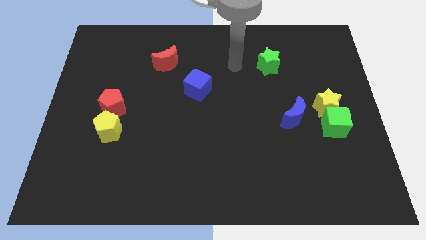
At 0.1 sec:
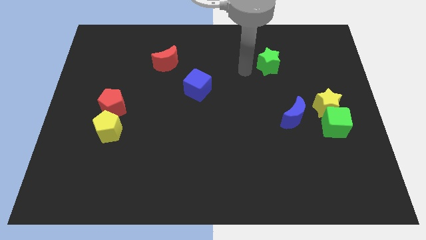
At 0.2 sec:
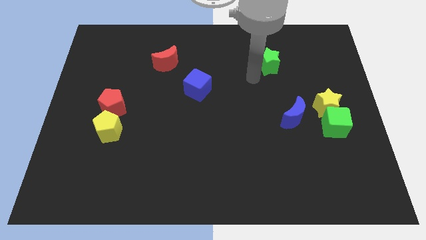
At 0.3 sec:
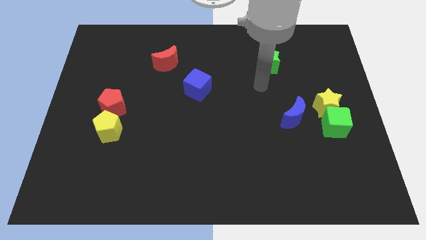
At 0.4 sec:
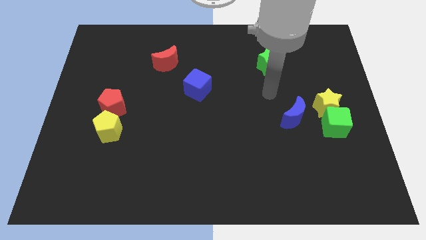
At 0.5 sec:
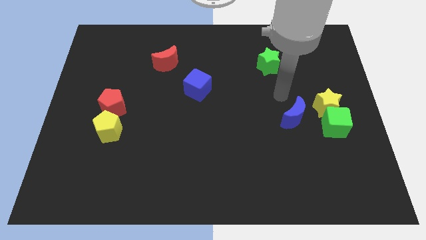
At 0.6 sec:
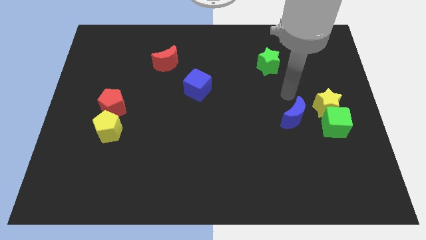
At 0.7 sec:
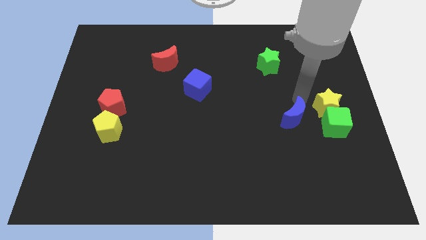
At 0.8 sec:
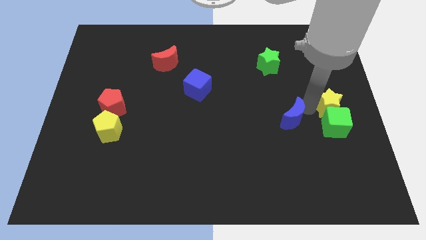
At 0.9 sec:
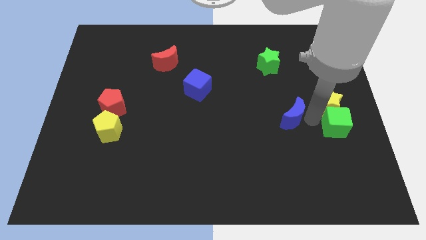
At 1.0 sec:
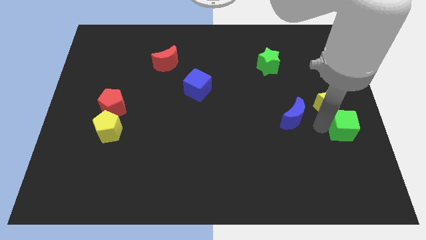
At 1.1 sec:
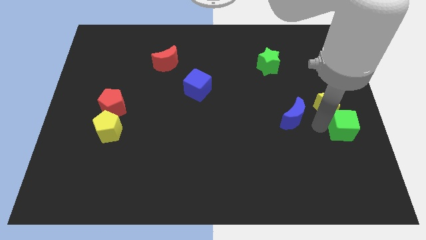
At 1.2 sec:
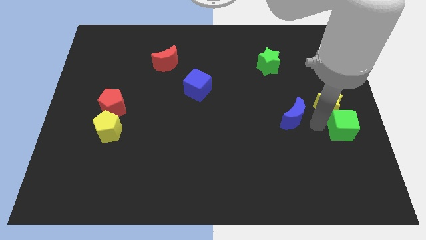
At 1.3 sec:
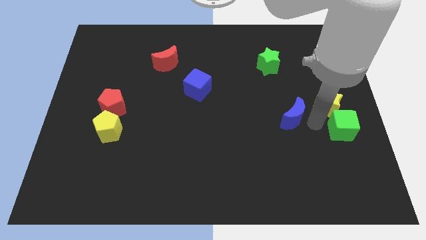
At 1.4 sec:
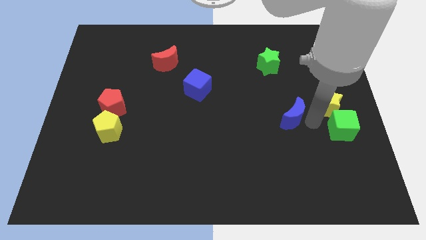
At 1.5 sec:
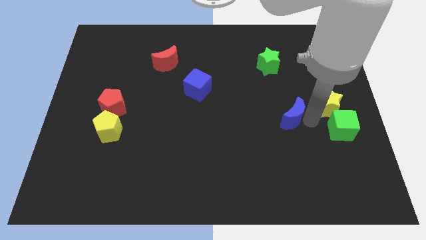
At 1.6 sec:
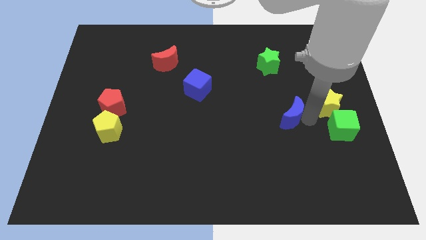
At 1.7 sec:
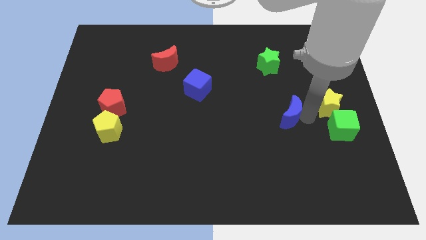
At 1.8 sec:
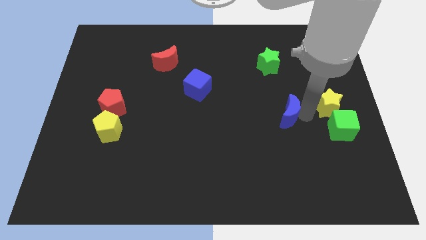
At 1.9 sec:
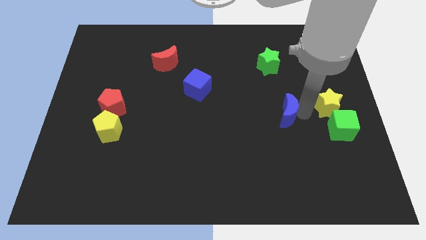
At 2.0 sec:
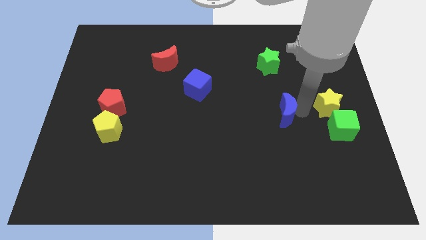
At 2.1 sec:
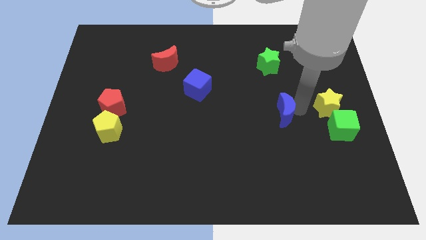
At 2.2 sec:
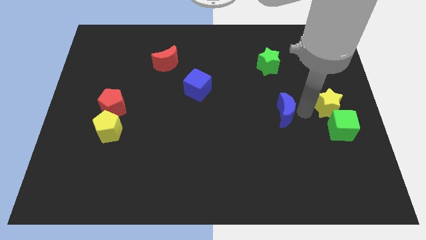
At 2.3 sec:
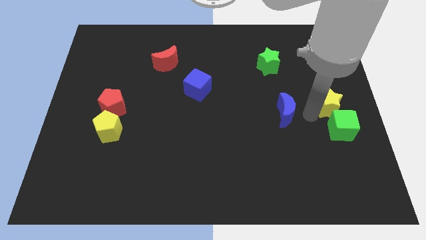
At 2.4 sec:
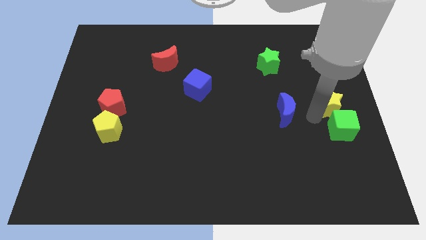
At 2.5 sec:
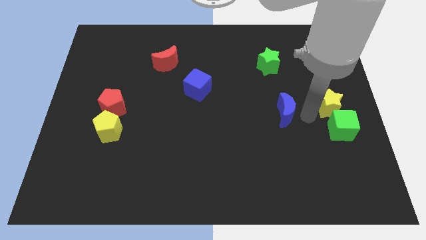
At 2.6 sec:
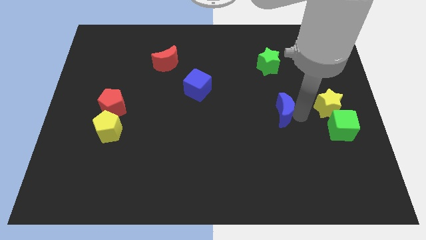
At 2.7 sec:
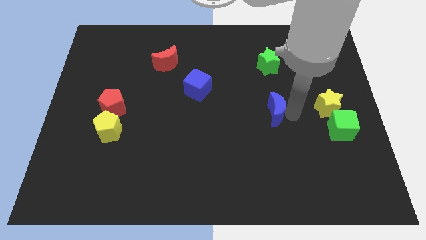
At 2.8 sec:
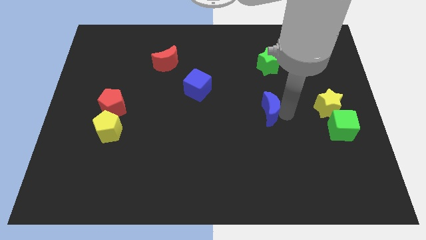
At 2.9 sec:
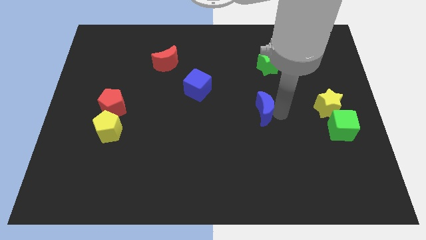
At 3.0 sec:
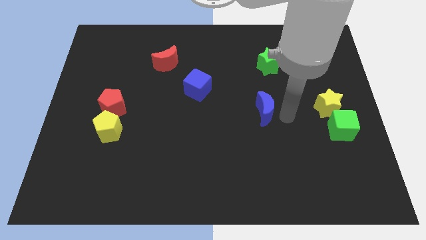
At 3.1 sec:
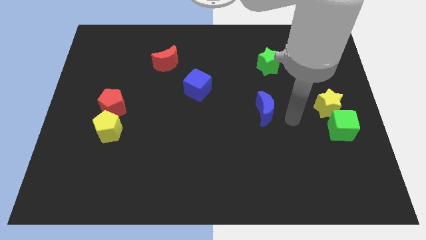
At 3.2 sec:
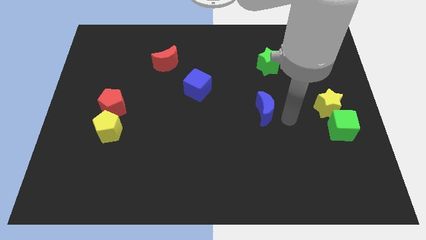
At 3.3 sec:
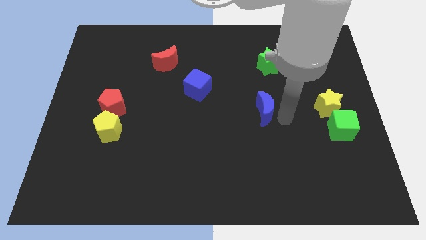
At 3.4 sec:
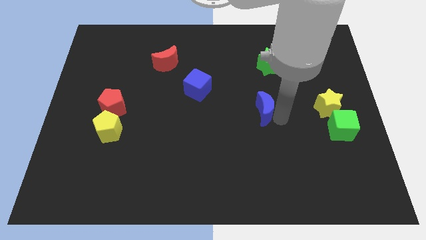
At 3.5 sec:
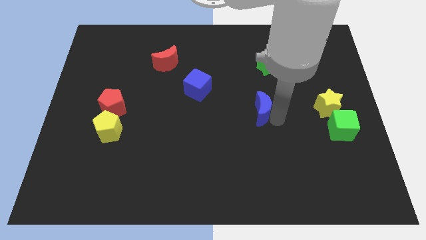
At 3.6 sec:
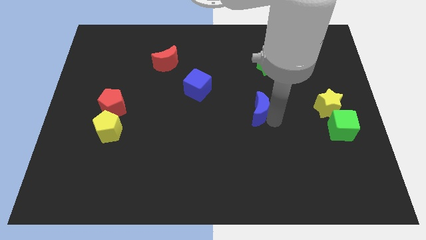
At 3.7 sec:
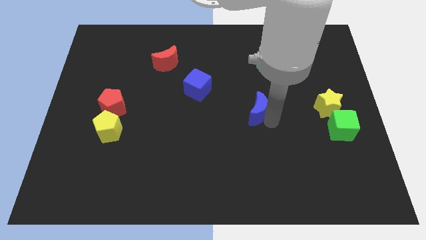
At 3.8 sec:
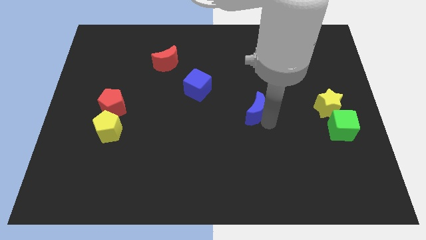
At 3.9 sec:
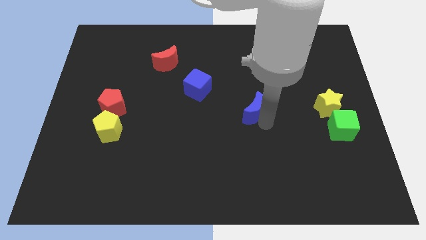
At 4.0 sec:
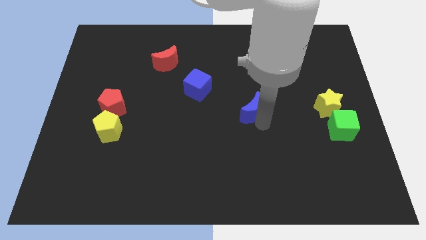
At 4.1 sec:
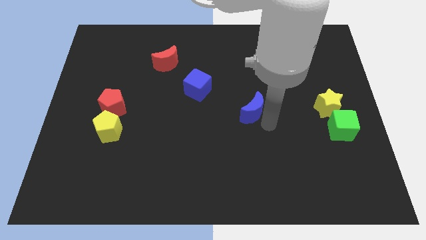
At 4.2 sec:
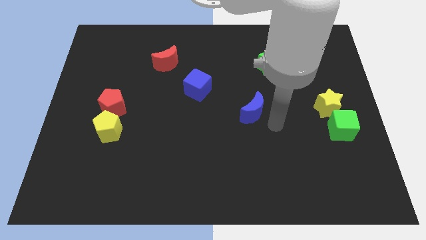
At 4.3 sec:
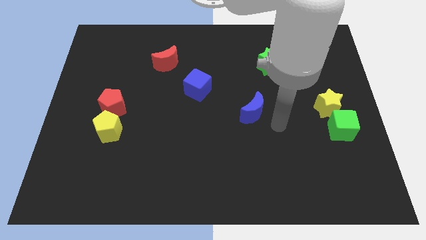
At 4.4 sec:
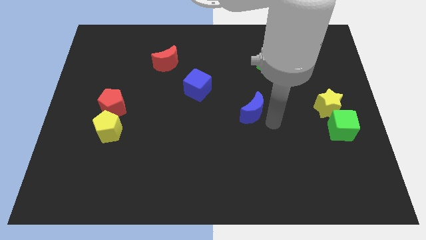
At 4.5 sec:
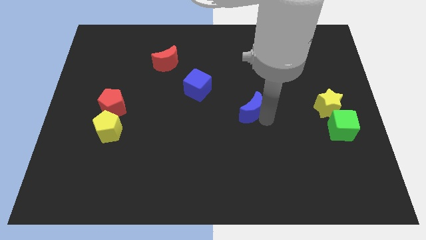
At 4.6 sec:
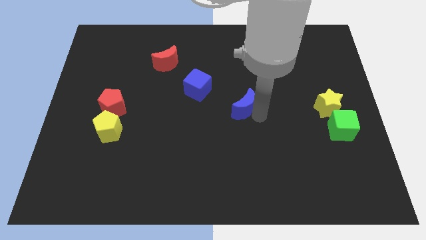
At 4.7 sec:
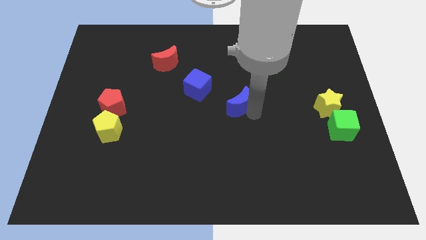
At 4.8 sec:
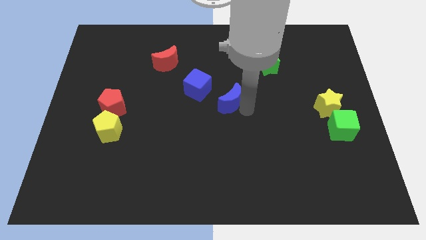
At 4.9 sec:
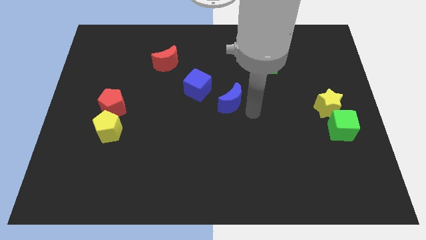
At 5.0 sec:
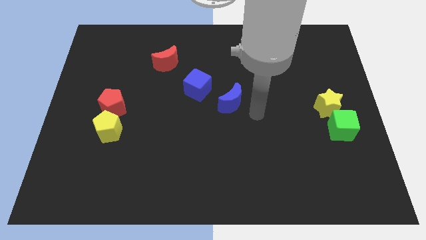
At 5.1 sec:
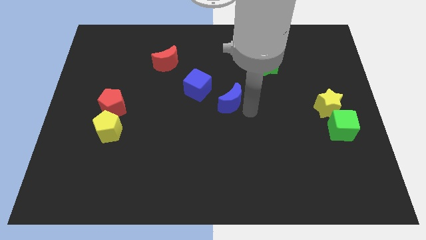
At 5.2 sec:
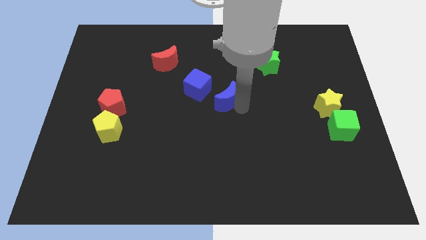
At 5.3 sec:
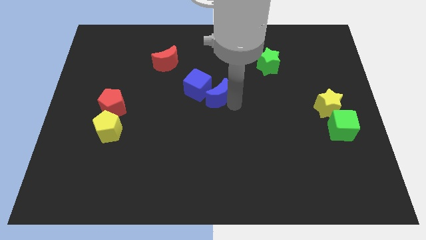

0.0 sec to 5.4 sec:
put the blue moon close to the blue cube

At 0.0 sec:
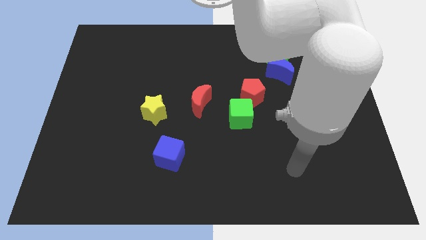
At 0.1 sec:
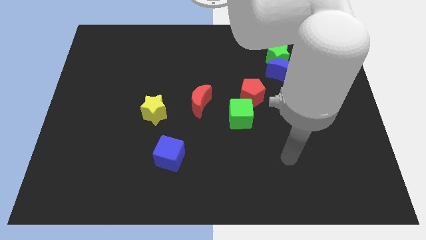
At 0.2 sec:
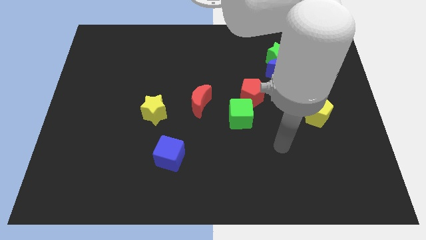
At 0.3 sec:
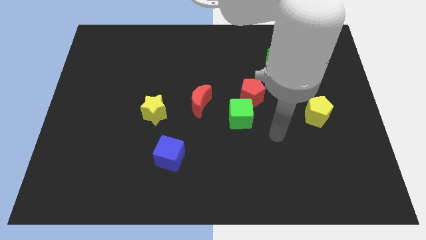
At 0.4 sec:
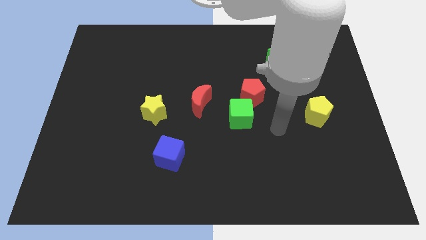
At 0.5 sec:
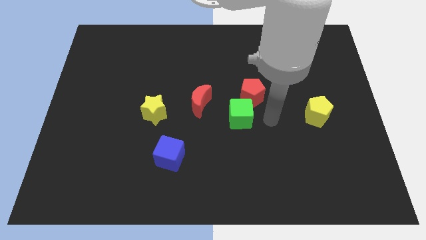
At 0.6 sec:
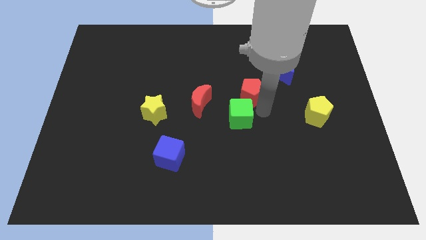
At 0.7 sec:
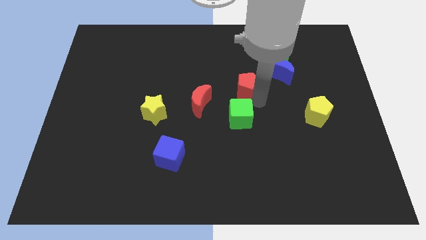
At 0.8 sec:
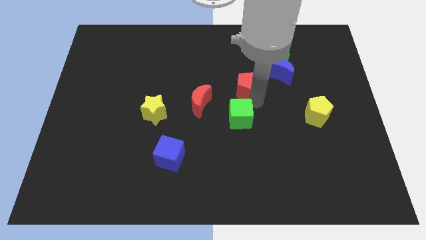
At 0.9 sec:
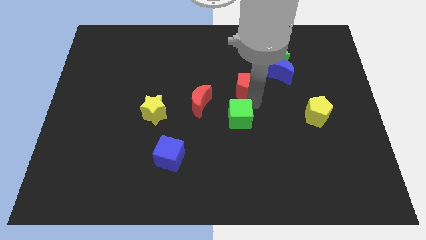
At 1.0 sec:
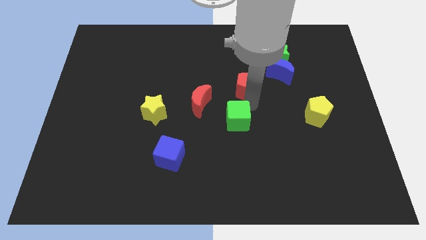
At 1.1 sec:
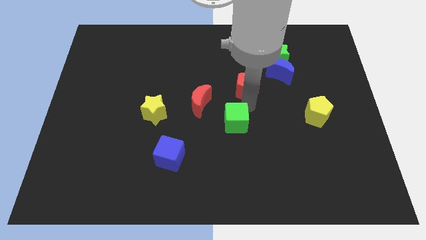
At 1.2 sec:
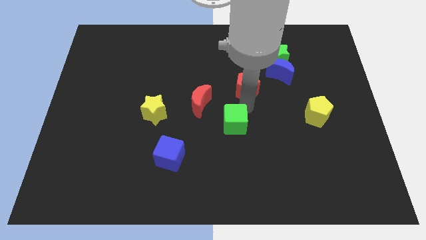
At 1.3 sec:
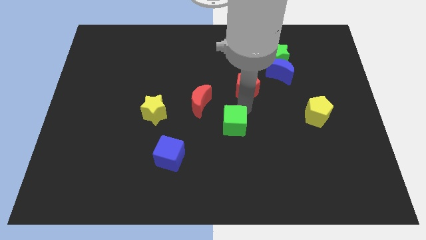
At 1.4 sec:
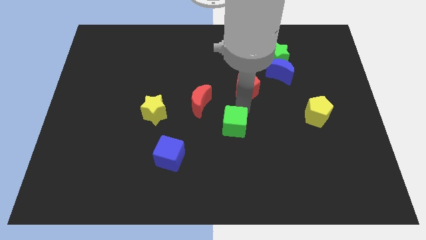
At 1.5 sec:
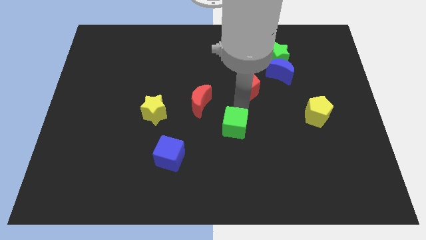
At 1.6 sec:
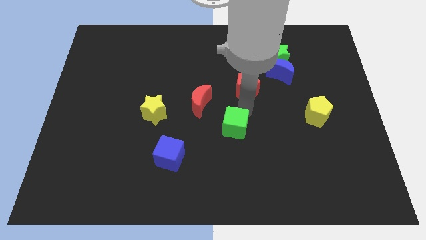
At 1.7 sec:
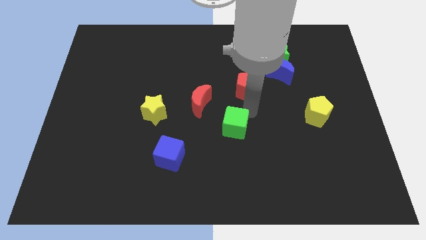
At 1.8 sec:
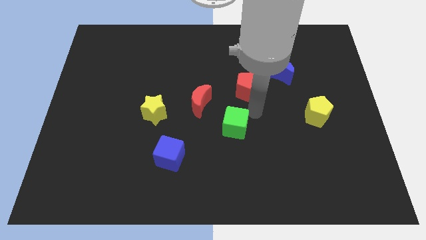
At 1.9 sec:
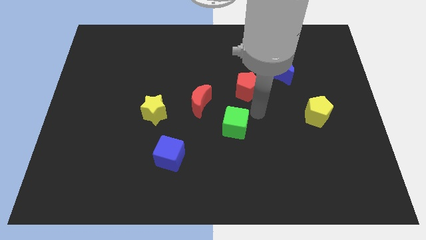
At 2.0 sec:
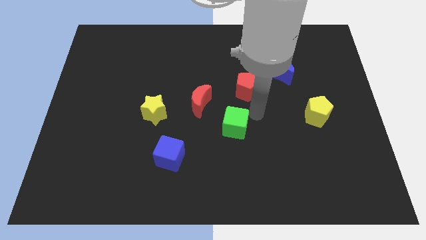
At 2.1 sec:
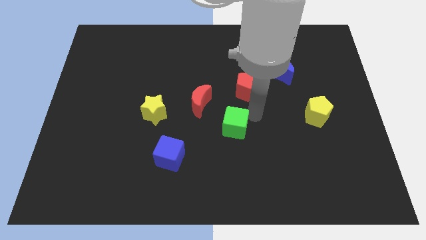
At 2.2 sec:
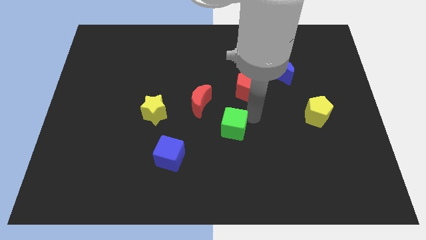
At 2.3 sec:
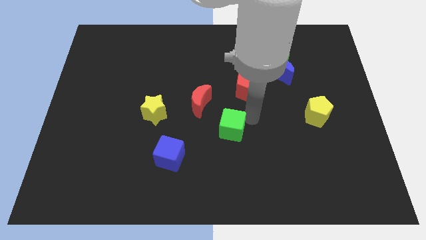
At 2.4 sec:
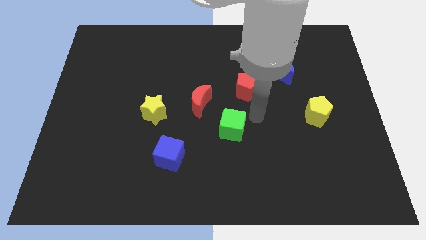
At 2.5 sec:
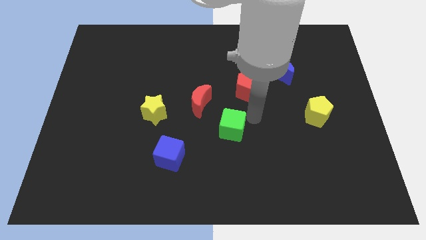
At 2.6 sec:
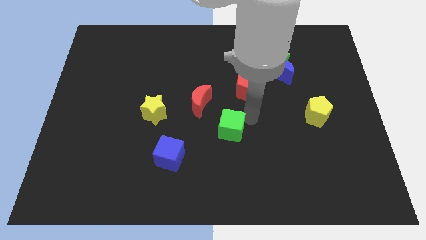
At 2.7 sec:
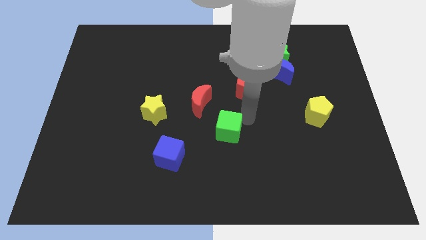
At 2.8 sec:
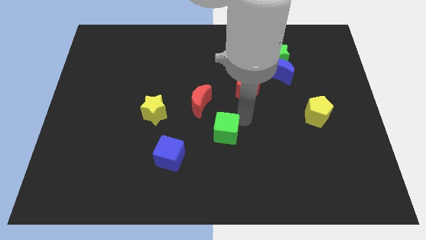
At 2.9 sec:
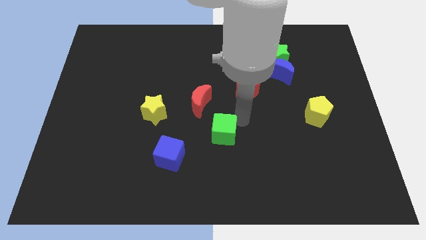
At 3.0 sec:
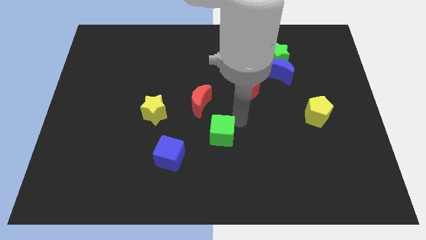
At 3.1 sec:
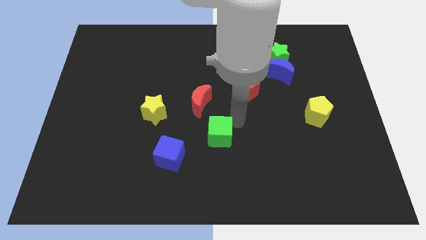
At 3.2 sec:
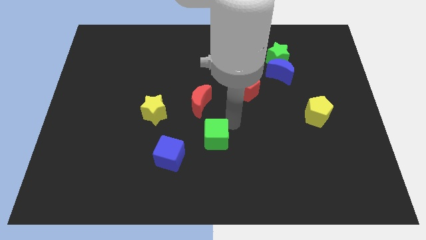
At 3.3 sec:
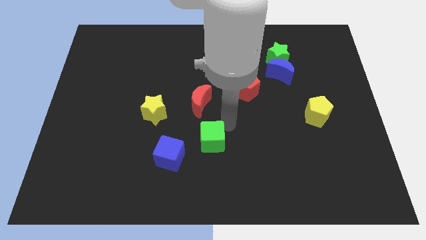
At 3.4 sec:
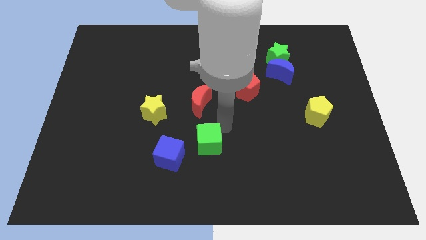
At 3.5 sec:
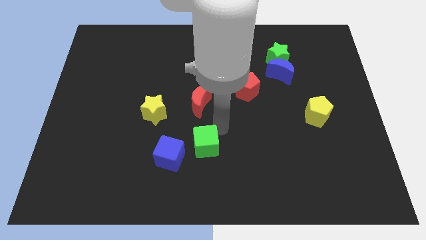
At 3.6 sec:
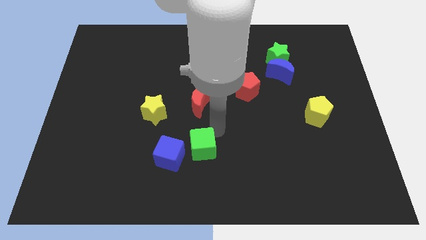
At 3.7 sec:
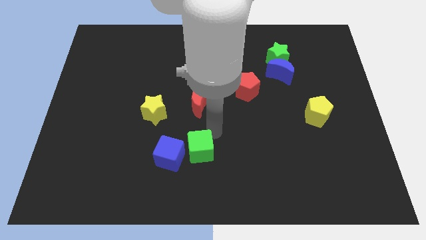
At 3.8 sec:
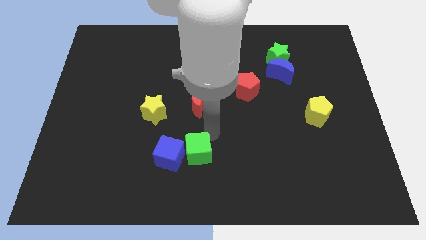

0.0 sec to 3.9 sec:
slide the green cube close to the blue cube
